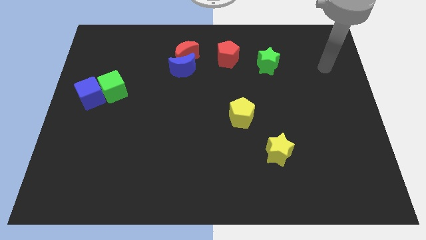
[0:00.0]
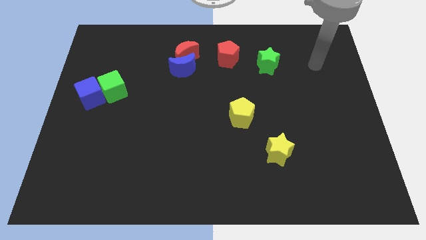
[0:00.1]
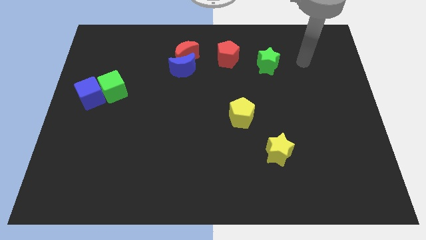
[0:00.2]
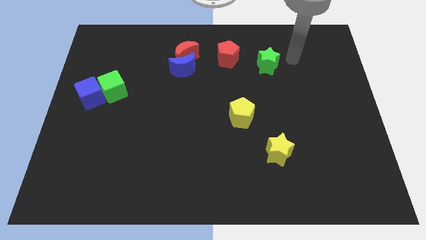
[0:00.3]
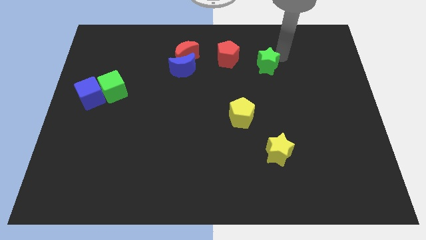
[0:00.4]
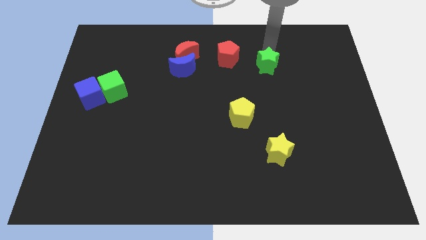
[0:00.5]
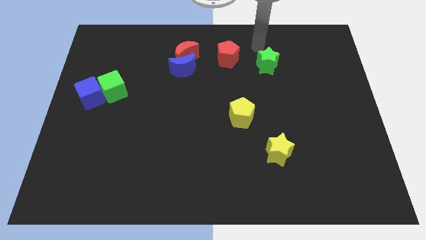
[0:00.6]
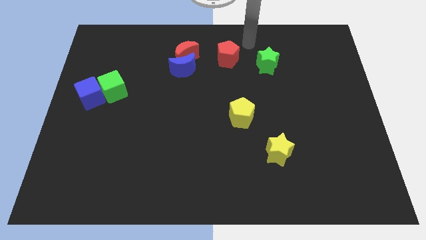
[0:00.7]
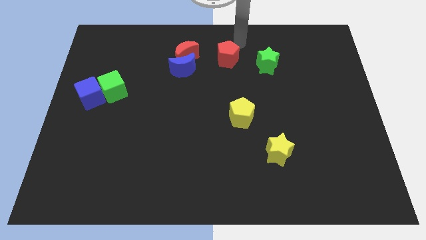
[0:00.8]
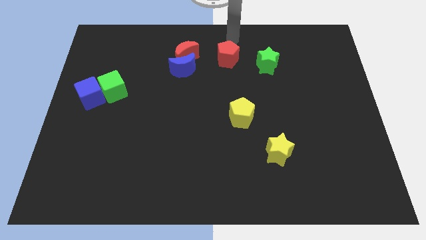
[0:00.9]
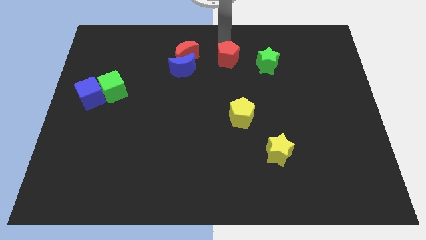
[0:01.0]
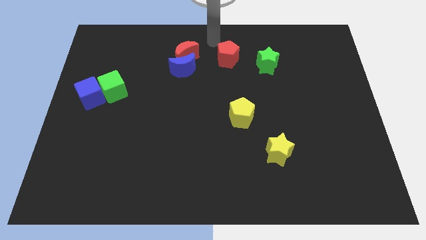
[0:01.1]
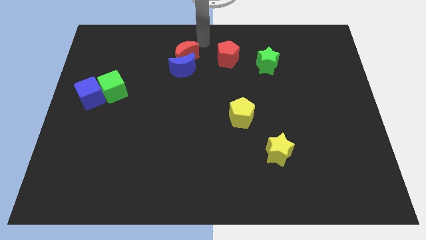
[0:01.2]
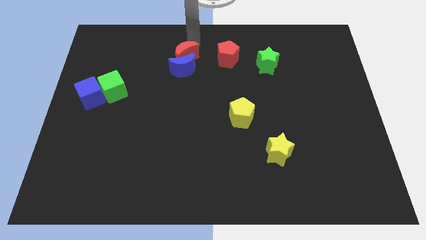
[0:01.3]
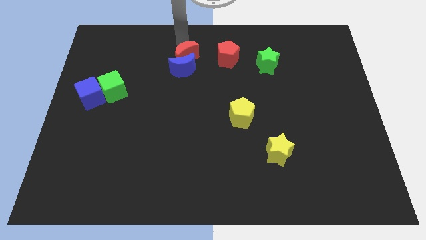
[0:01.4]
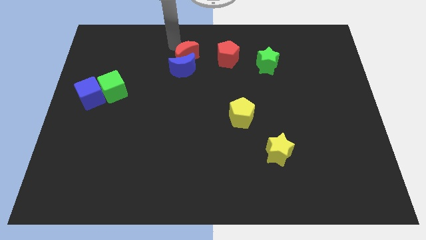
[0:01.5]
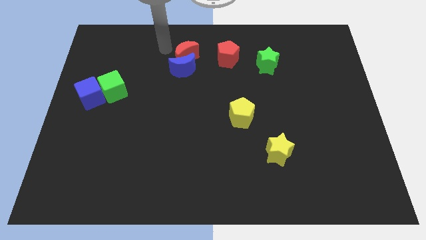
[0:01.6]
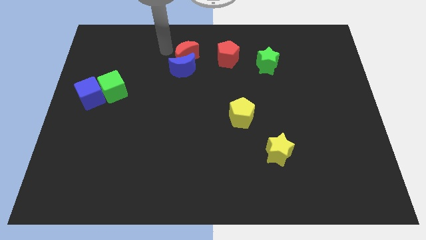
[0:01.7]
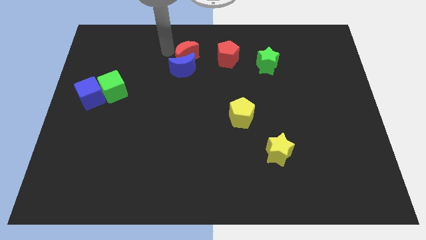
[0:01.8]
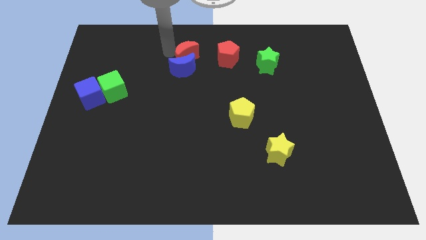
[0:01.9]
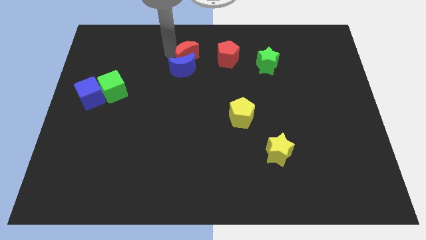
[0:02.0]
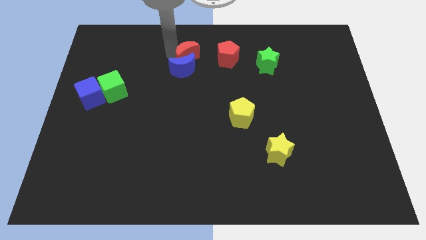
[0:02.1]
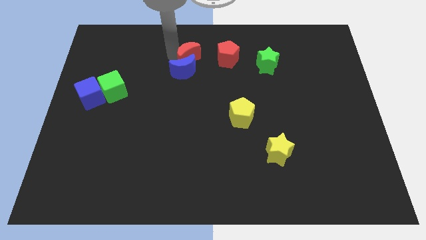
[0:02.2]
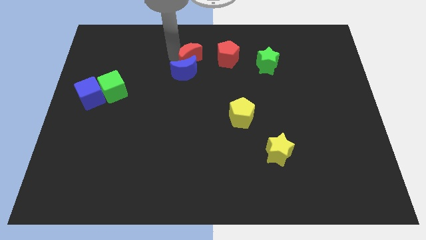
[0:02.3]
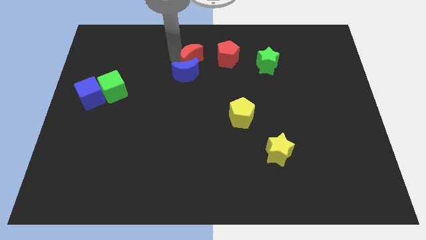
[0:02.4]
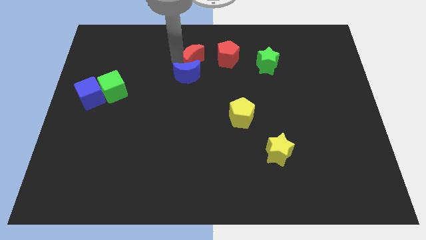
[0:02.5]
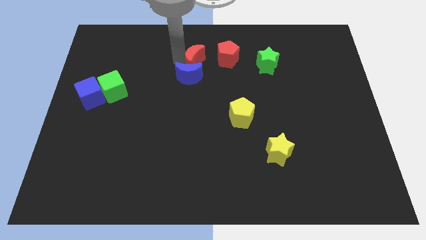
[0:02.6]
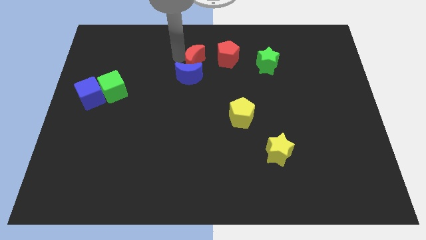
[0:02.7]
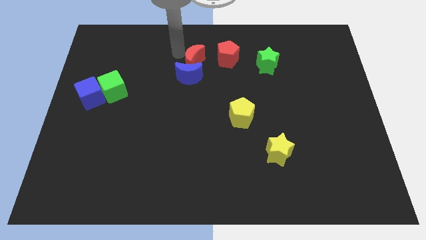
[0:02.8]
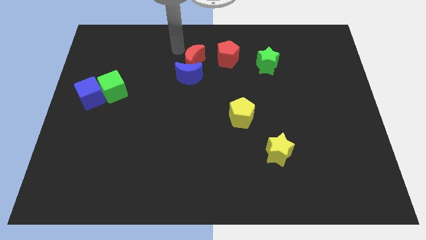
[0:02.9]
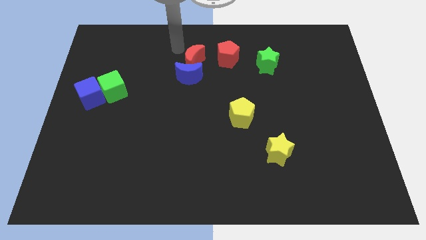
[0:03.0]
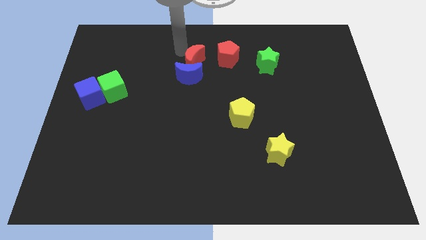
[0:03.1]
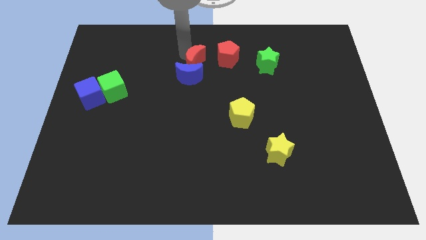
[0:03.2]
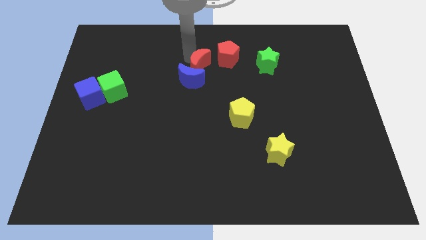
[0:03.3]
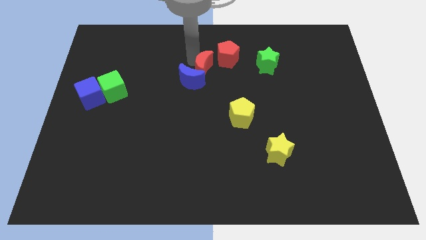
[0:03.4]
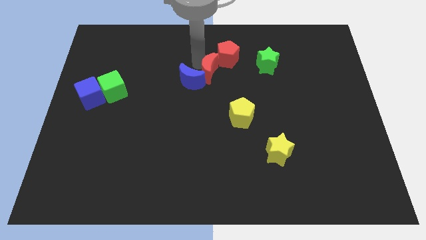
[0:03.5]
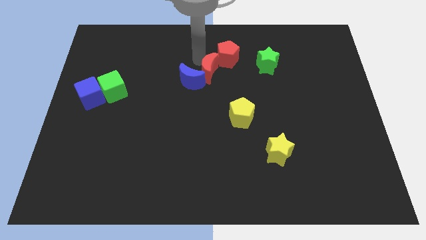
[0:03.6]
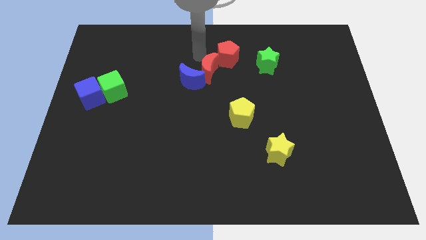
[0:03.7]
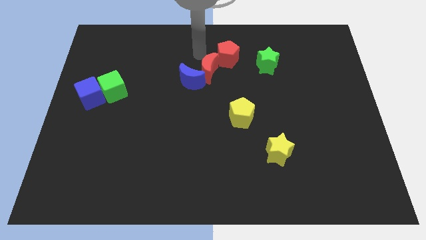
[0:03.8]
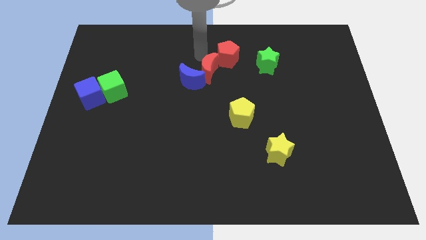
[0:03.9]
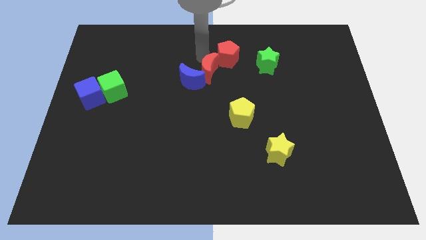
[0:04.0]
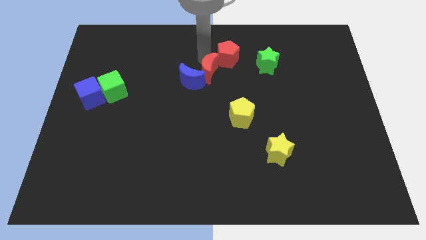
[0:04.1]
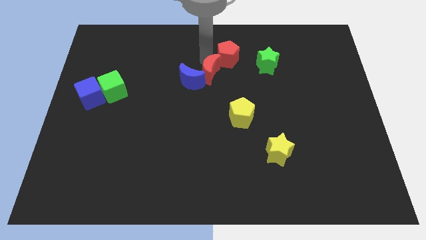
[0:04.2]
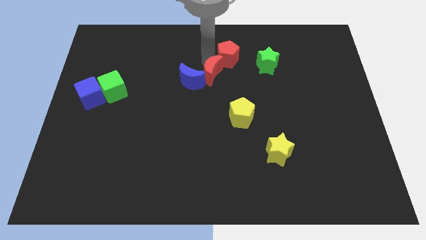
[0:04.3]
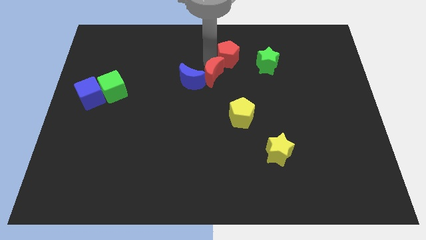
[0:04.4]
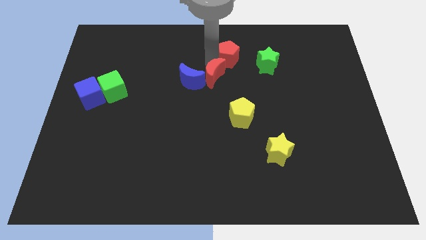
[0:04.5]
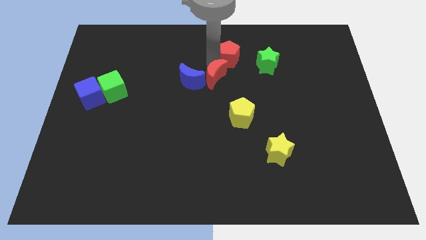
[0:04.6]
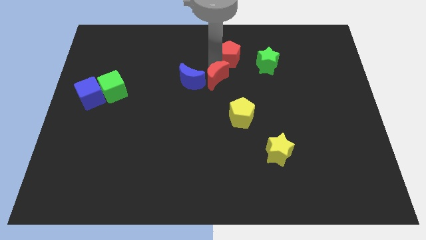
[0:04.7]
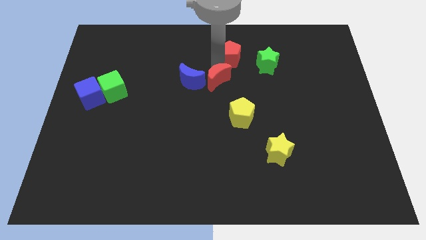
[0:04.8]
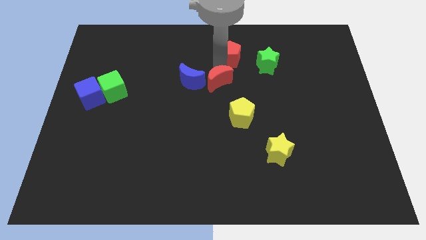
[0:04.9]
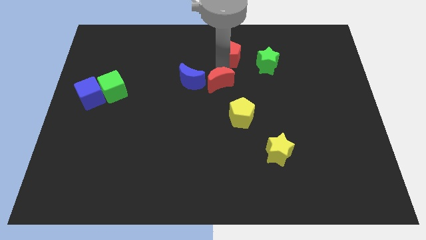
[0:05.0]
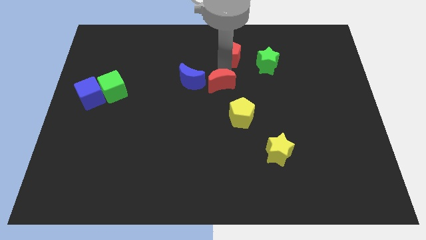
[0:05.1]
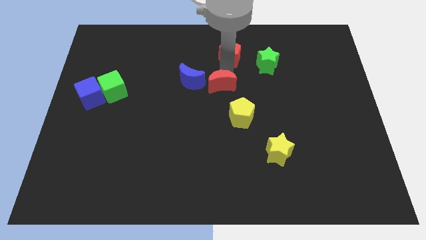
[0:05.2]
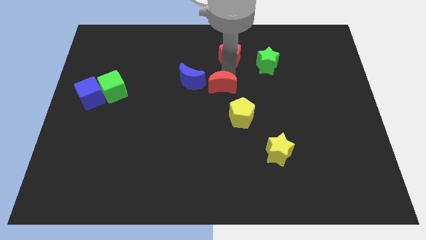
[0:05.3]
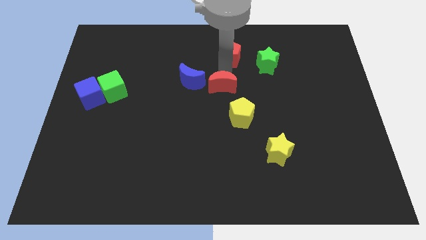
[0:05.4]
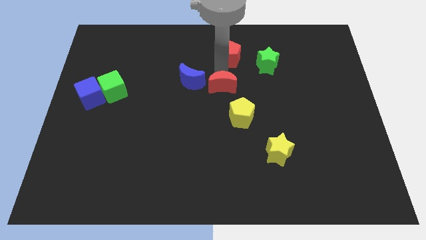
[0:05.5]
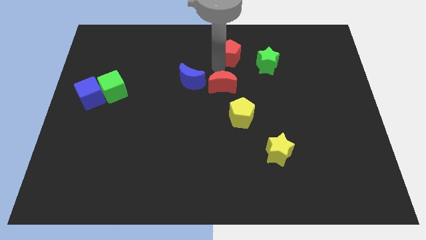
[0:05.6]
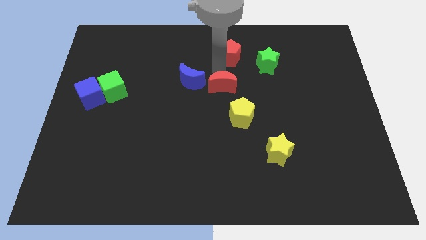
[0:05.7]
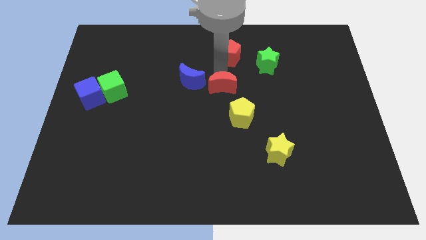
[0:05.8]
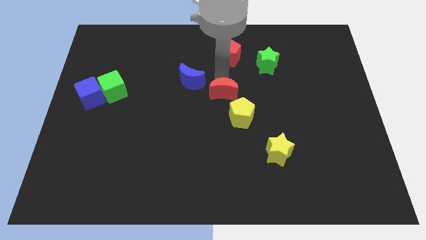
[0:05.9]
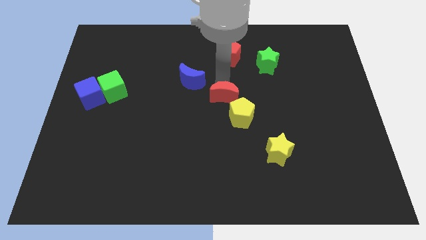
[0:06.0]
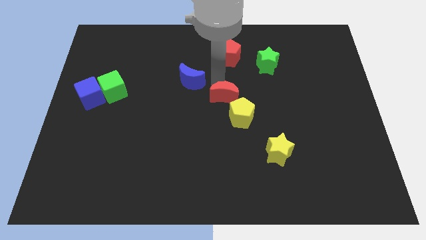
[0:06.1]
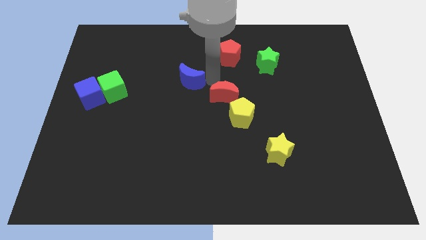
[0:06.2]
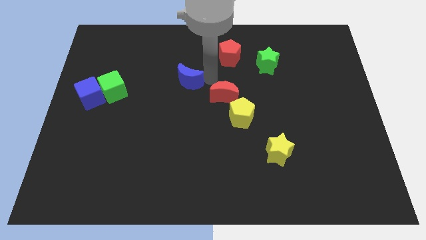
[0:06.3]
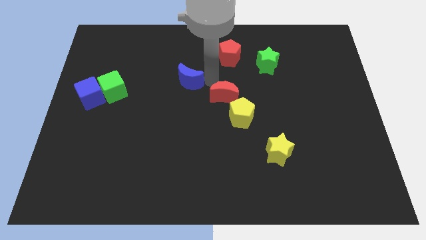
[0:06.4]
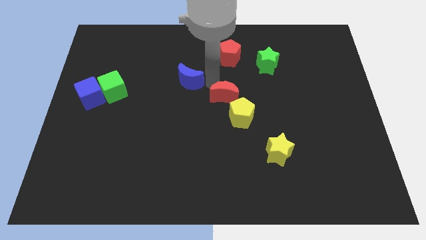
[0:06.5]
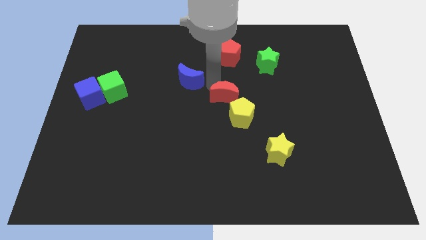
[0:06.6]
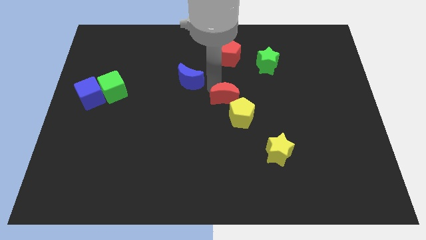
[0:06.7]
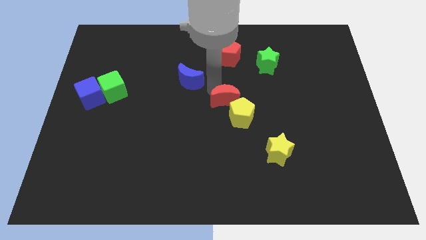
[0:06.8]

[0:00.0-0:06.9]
push the red moon to the yellow pentagon
